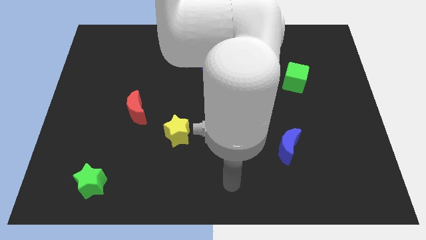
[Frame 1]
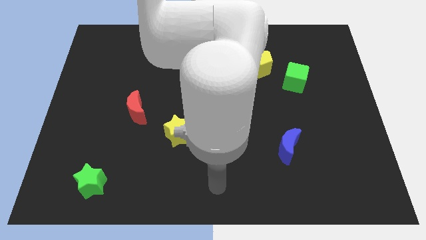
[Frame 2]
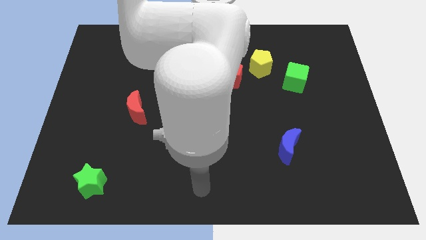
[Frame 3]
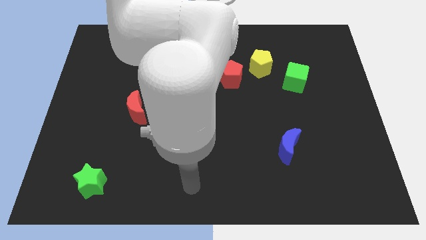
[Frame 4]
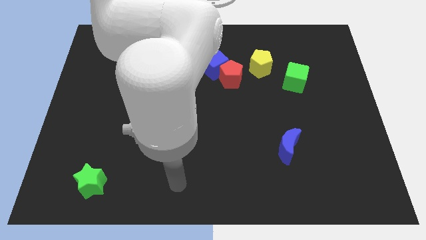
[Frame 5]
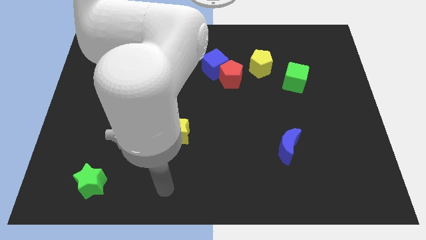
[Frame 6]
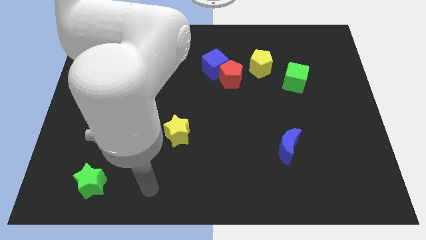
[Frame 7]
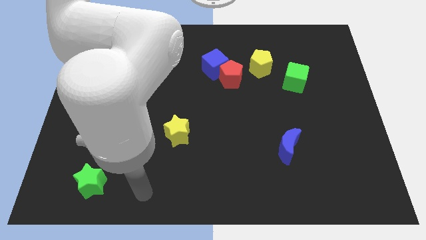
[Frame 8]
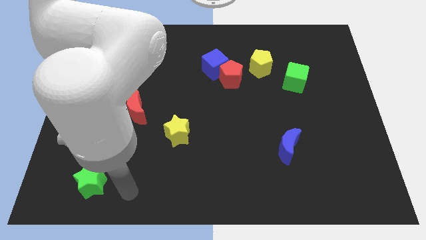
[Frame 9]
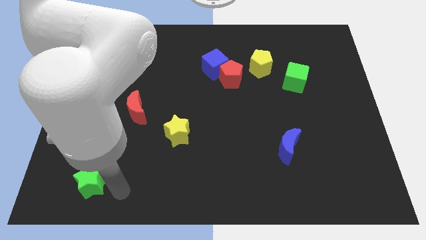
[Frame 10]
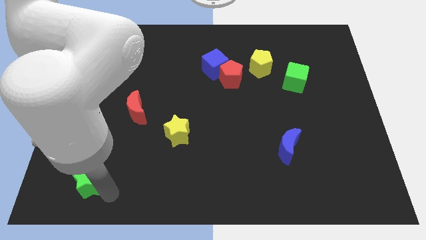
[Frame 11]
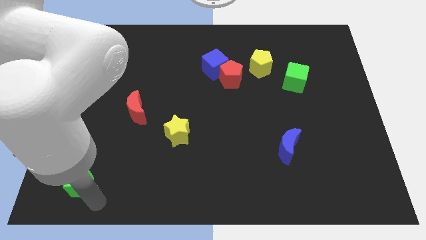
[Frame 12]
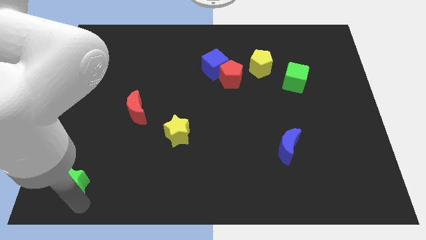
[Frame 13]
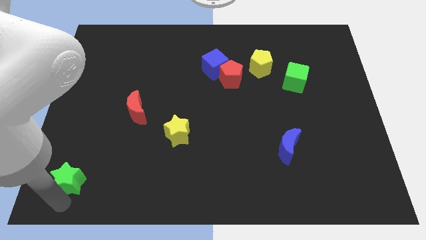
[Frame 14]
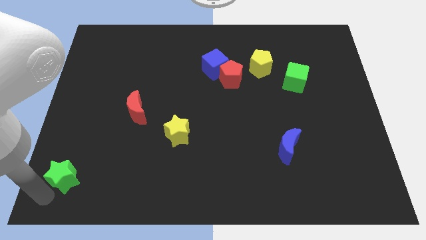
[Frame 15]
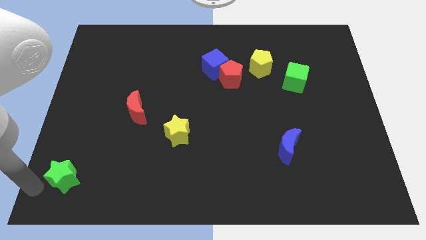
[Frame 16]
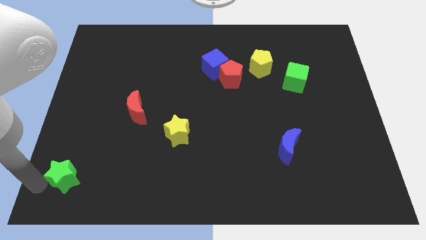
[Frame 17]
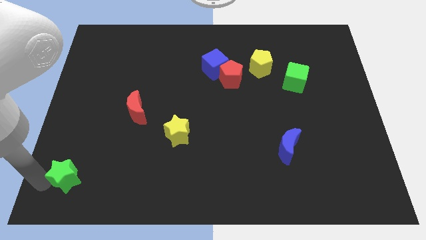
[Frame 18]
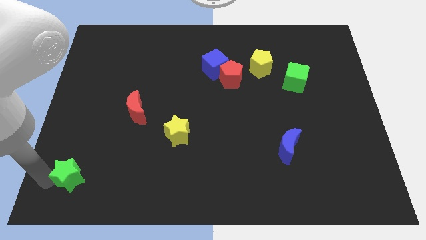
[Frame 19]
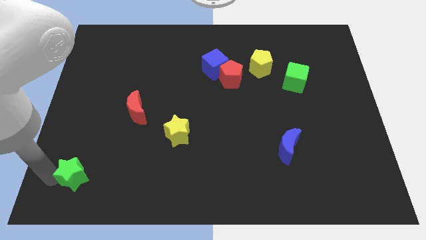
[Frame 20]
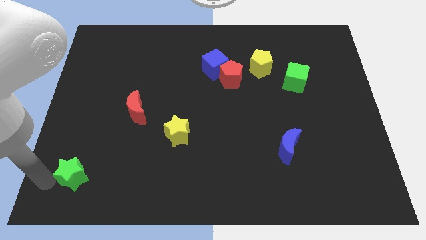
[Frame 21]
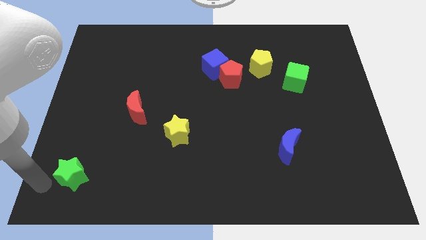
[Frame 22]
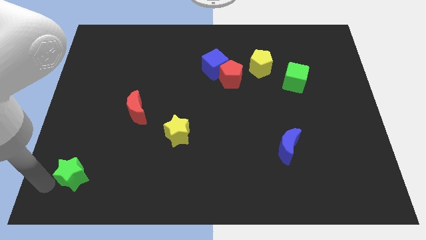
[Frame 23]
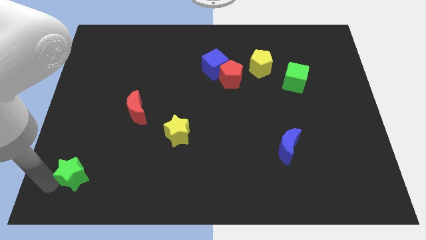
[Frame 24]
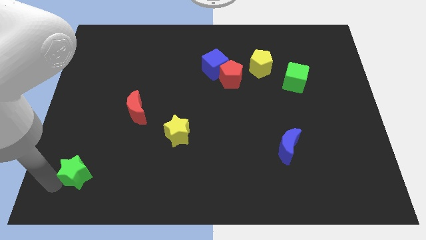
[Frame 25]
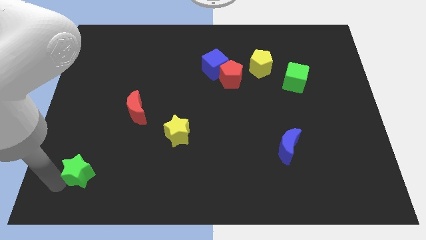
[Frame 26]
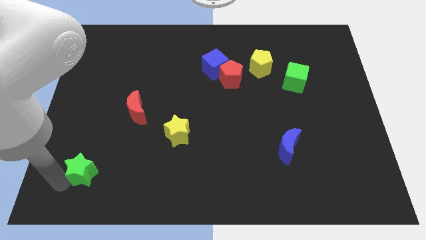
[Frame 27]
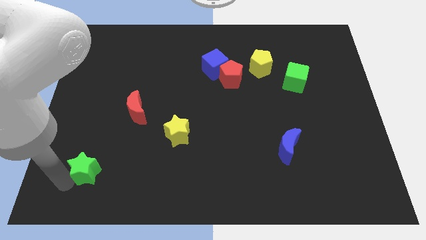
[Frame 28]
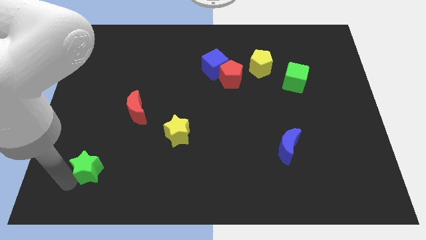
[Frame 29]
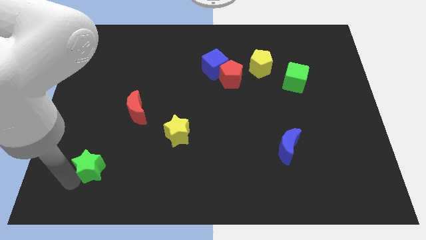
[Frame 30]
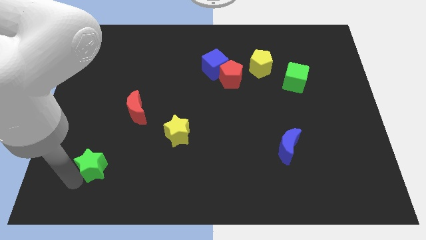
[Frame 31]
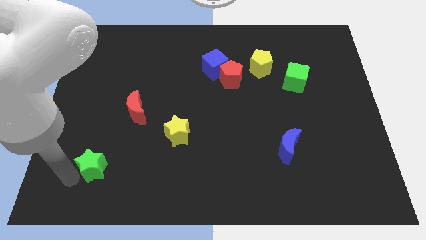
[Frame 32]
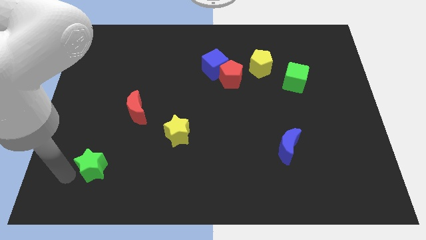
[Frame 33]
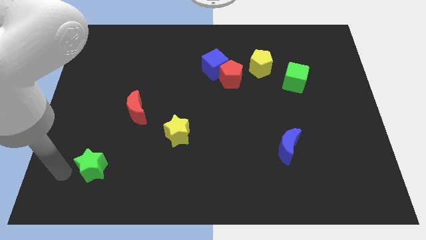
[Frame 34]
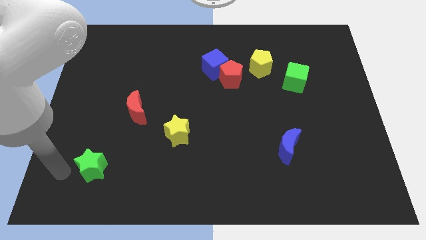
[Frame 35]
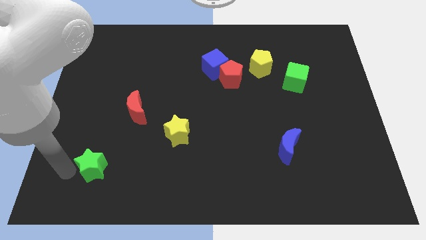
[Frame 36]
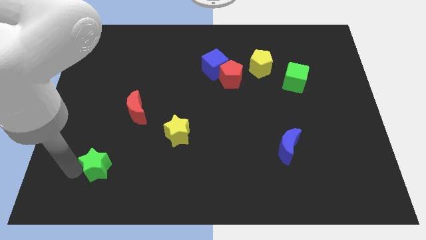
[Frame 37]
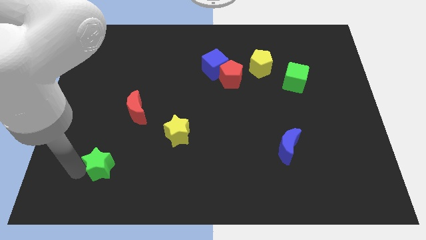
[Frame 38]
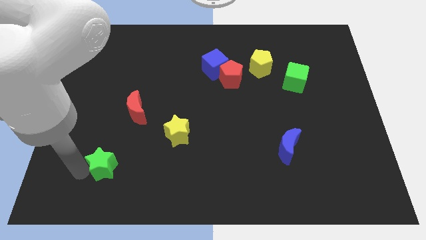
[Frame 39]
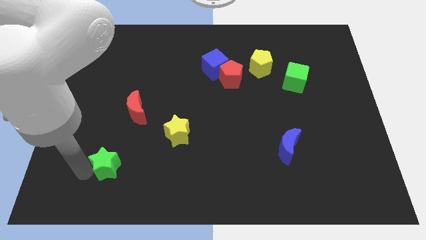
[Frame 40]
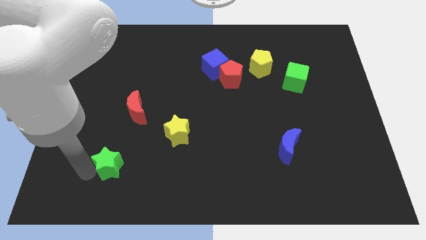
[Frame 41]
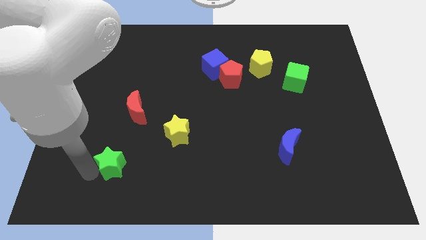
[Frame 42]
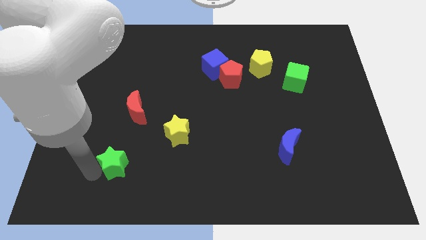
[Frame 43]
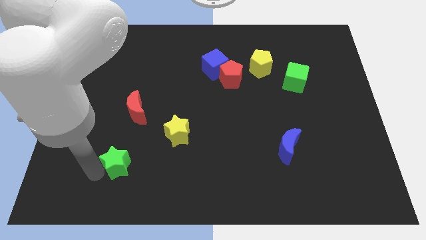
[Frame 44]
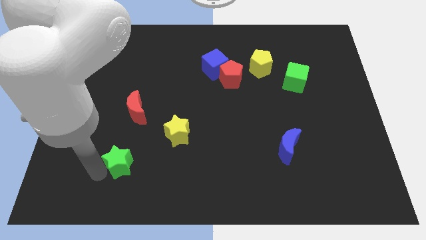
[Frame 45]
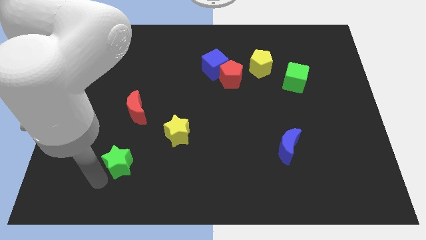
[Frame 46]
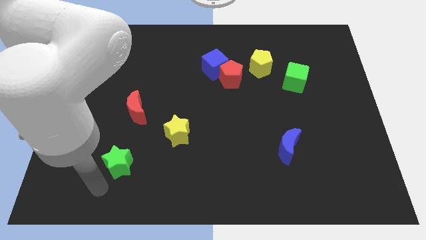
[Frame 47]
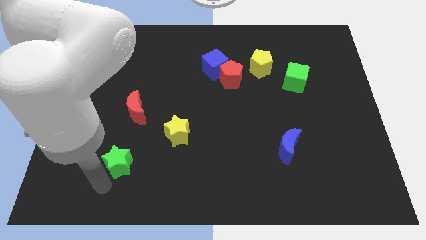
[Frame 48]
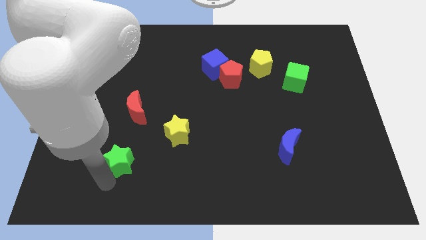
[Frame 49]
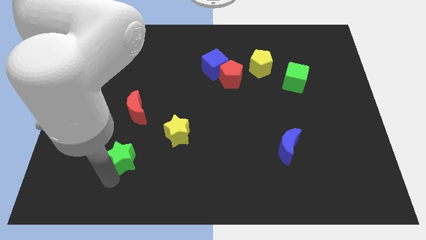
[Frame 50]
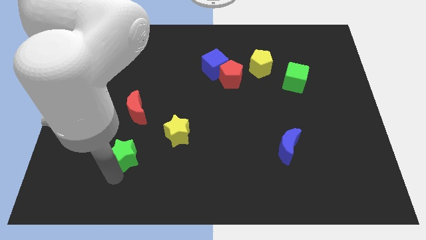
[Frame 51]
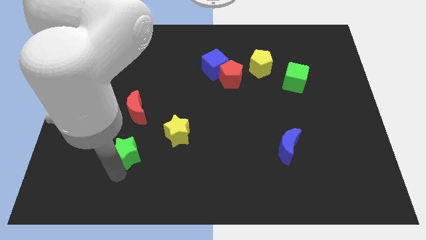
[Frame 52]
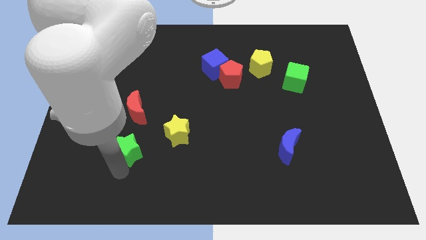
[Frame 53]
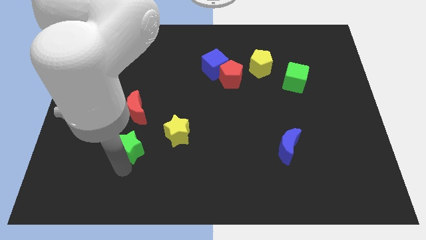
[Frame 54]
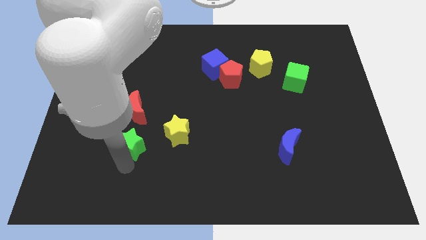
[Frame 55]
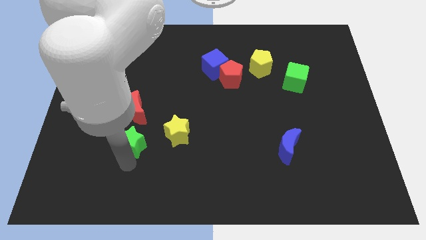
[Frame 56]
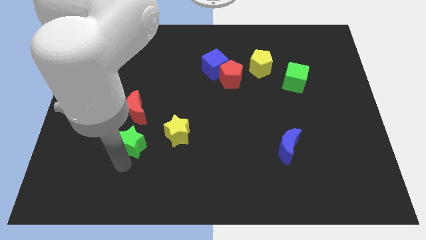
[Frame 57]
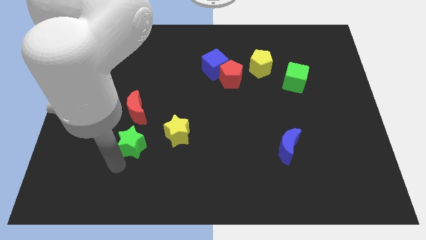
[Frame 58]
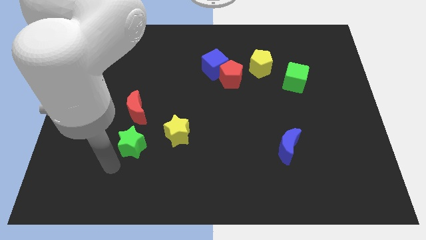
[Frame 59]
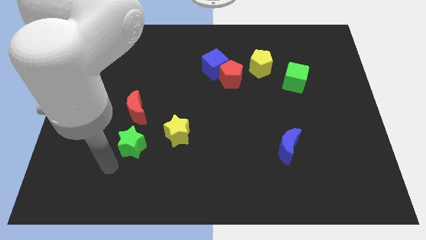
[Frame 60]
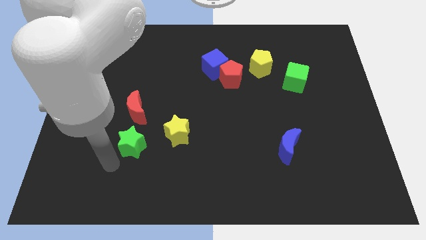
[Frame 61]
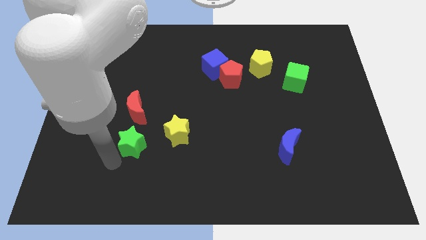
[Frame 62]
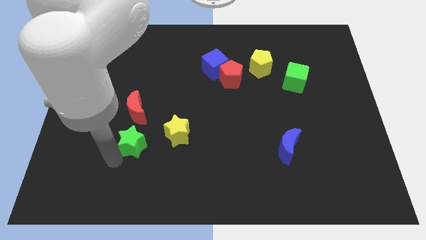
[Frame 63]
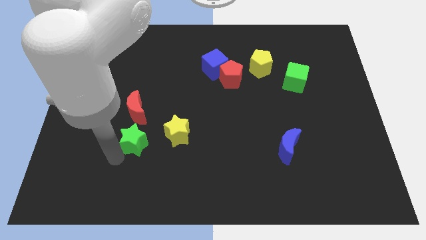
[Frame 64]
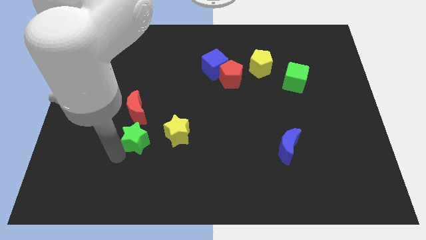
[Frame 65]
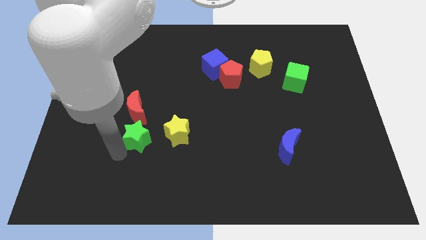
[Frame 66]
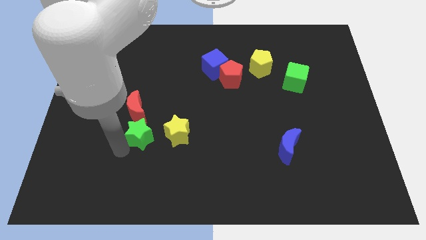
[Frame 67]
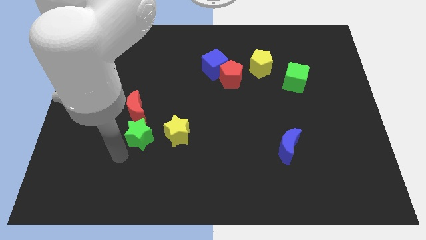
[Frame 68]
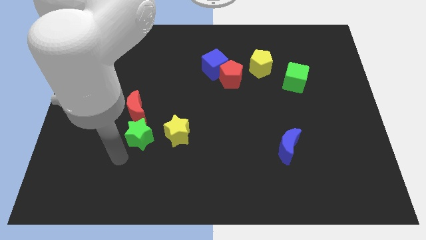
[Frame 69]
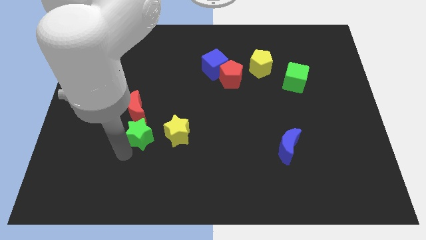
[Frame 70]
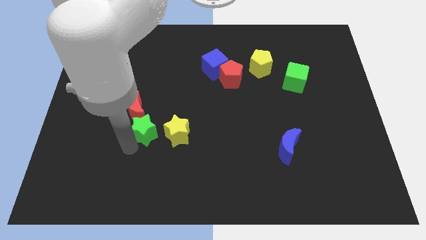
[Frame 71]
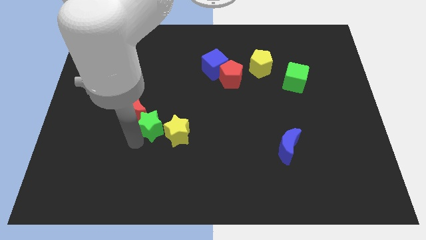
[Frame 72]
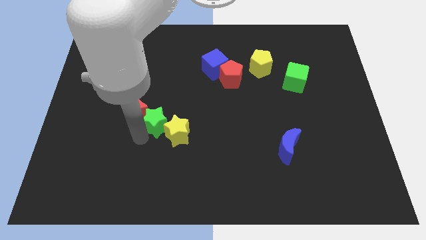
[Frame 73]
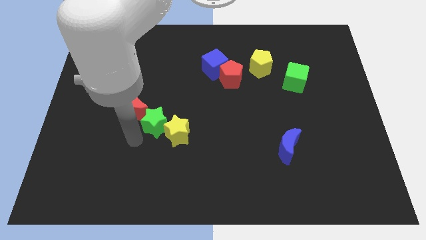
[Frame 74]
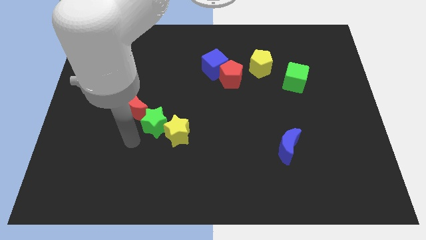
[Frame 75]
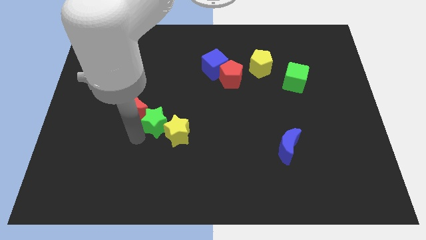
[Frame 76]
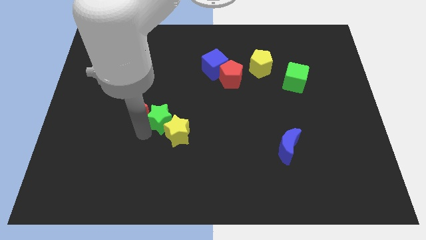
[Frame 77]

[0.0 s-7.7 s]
move the green star up and to the right diagonally
